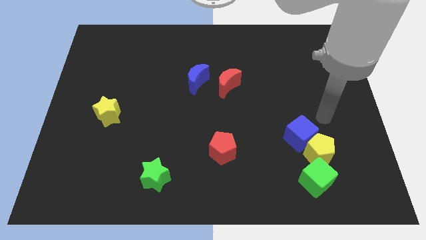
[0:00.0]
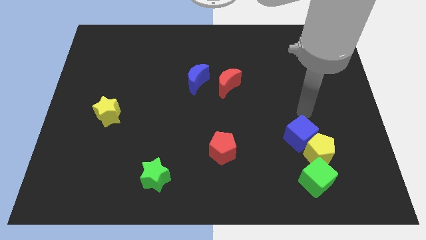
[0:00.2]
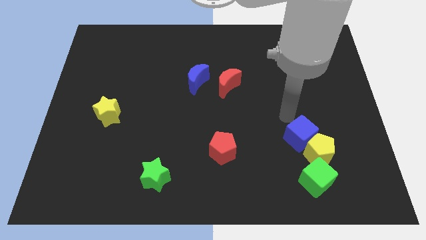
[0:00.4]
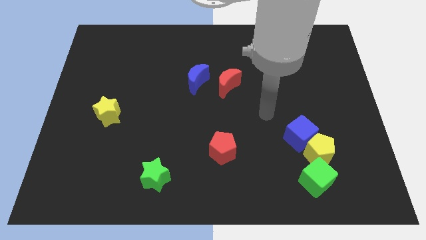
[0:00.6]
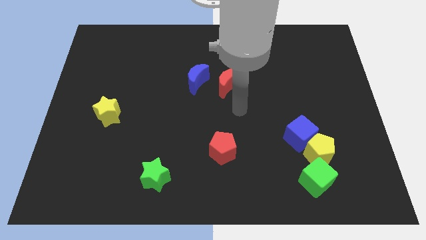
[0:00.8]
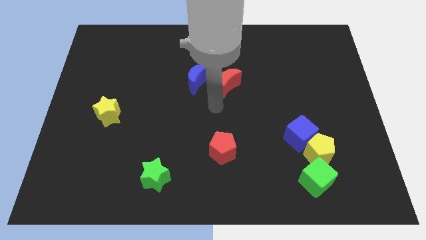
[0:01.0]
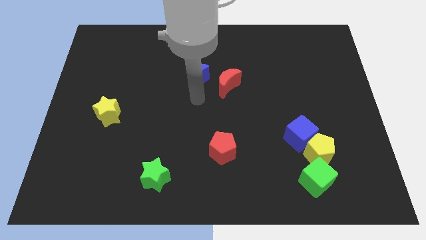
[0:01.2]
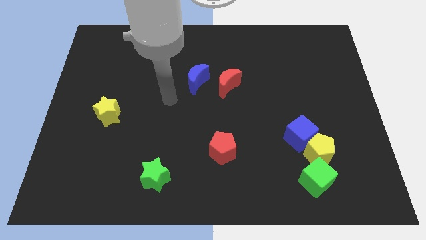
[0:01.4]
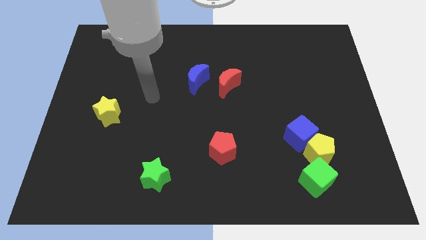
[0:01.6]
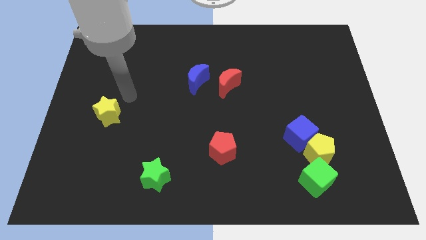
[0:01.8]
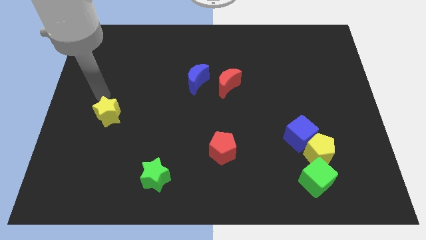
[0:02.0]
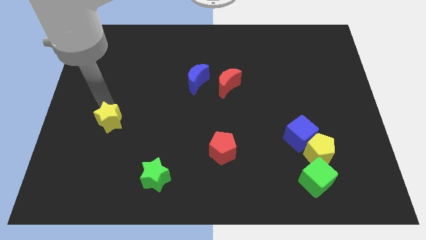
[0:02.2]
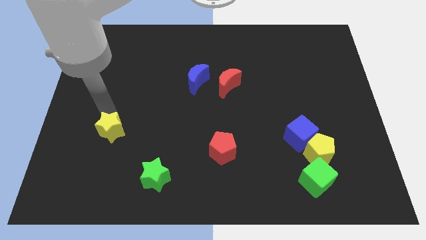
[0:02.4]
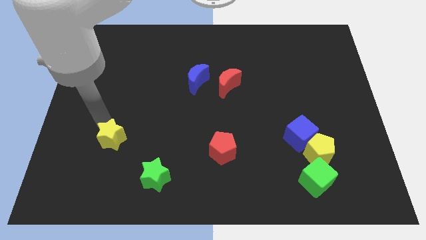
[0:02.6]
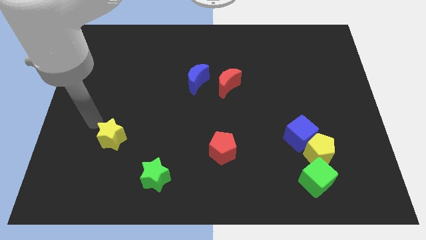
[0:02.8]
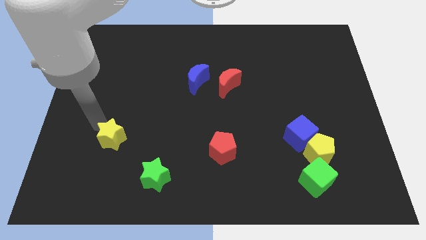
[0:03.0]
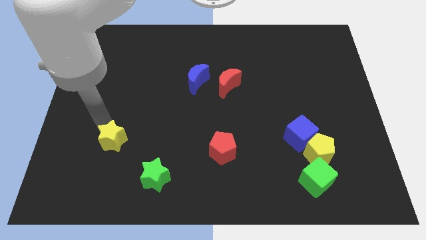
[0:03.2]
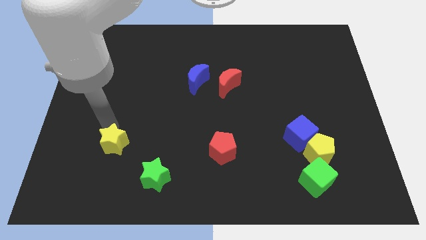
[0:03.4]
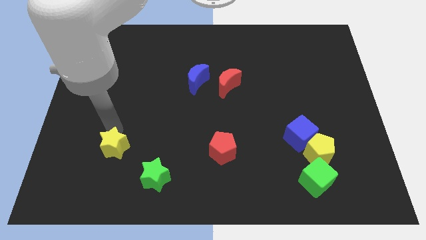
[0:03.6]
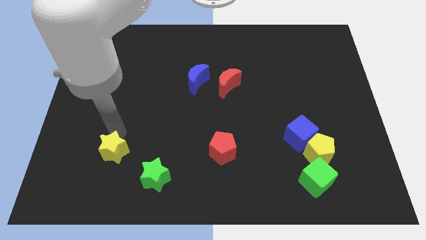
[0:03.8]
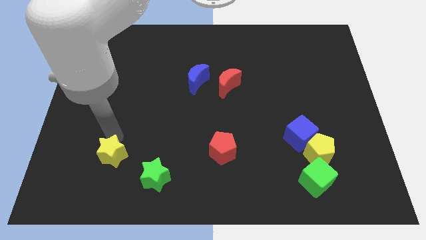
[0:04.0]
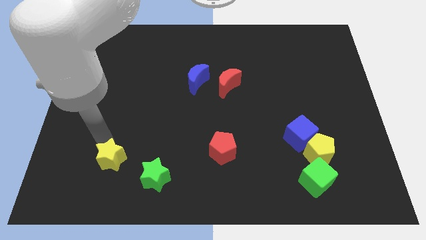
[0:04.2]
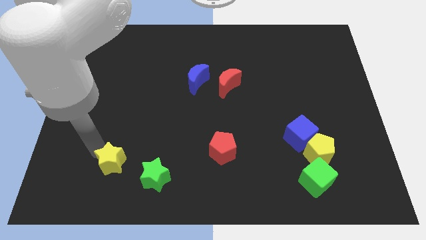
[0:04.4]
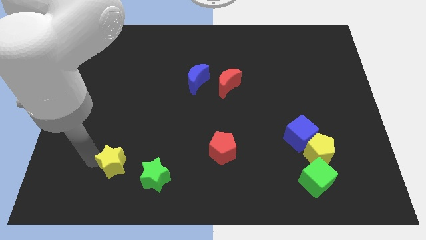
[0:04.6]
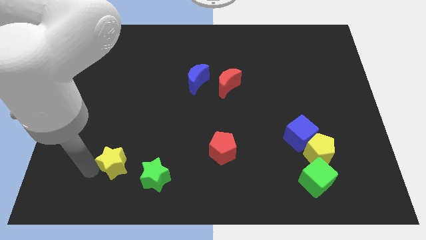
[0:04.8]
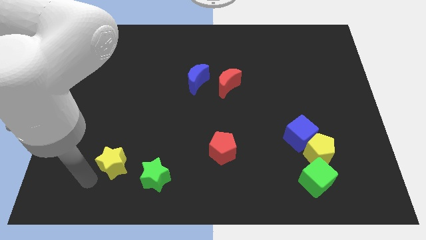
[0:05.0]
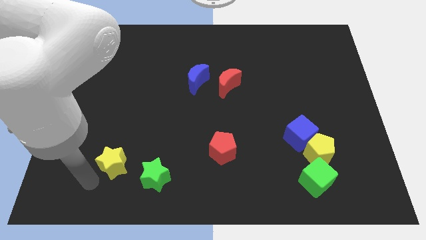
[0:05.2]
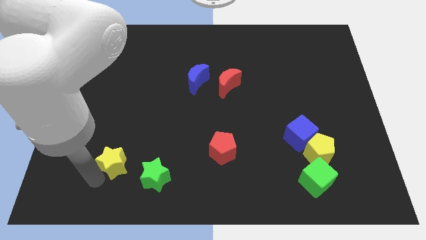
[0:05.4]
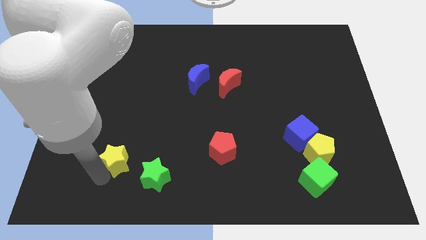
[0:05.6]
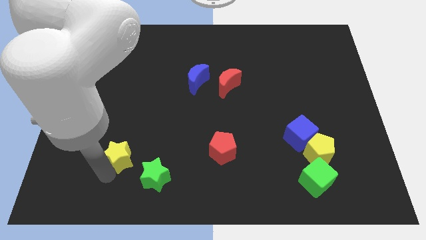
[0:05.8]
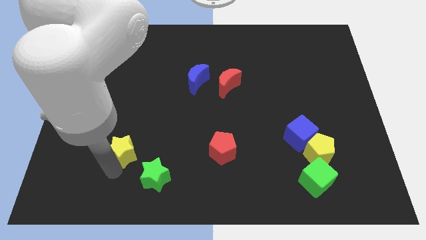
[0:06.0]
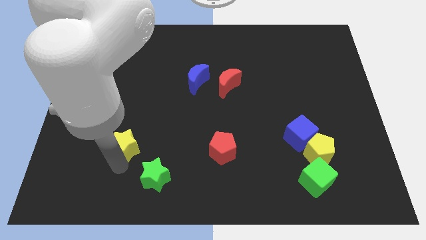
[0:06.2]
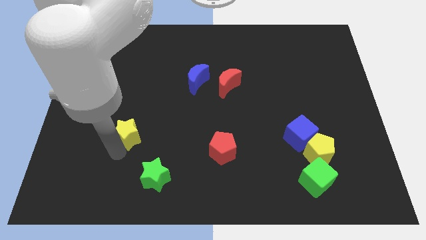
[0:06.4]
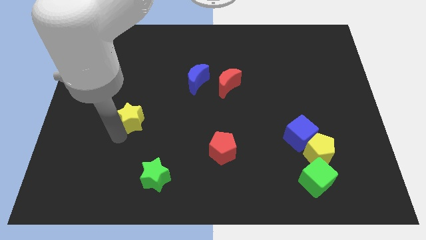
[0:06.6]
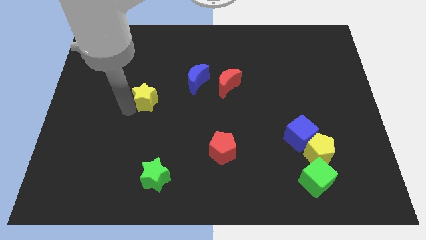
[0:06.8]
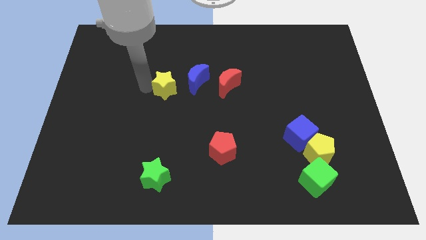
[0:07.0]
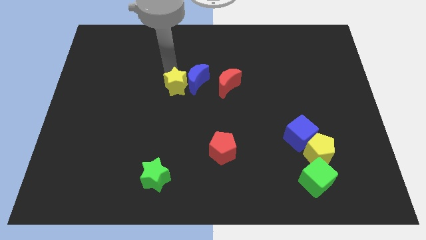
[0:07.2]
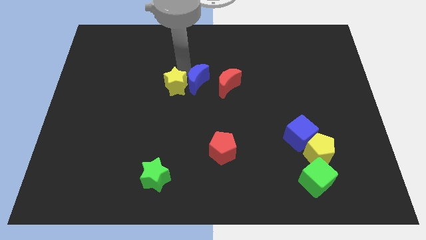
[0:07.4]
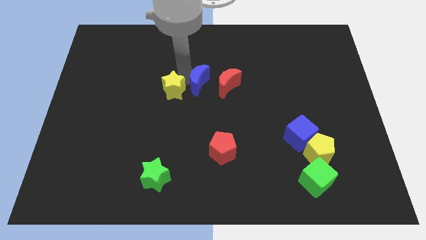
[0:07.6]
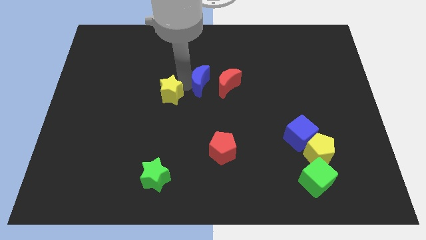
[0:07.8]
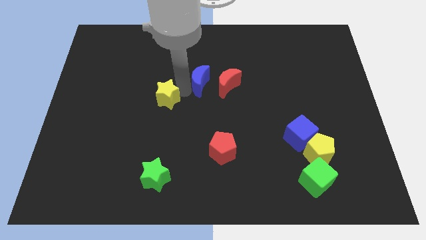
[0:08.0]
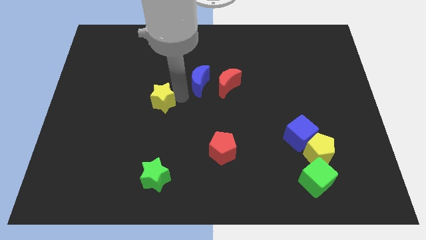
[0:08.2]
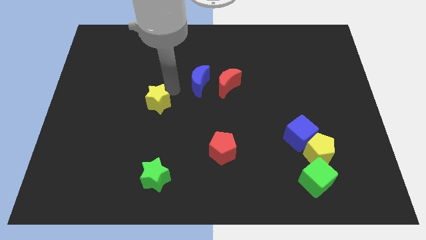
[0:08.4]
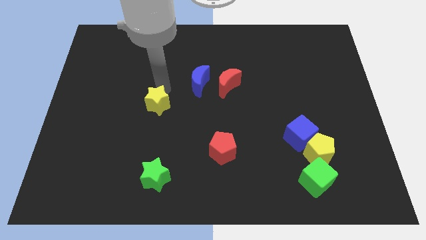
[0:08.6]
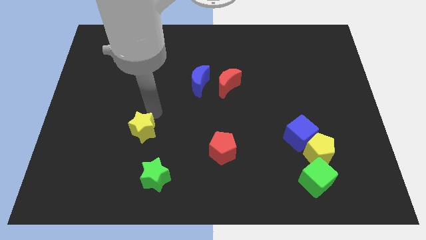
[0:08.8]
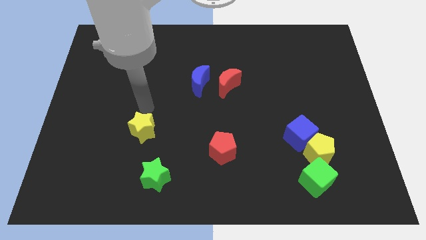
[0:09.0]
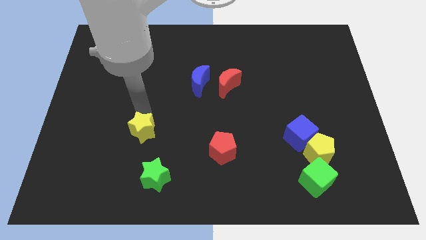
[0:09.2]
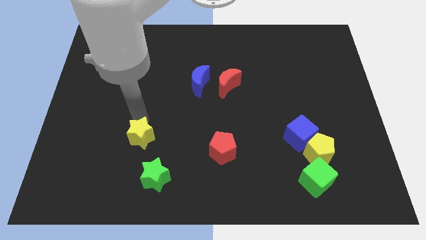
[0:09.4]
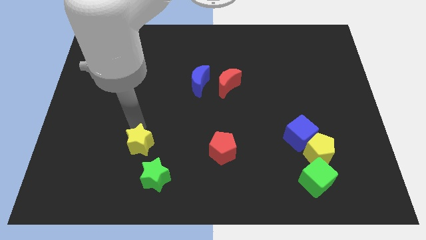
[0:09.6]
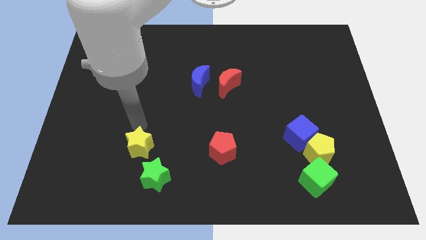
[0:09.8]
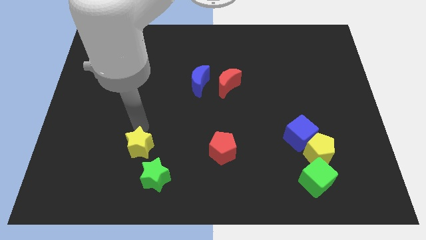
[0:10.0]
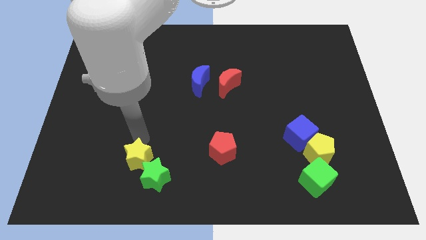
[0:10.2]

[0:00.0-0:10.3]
push the yellow star to the green star

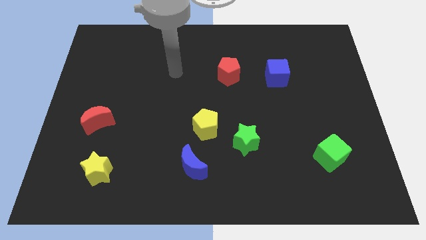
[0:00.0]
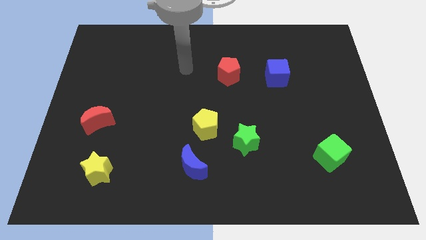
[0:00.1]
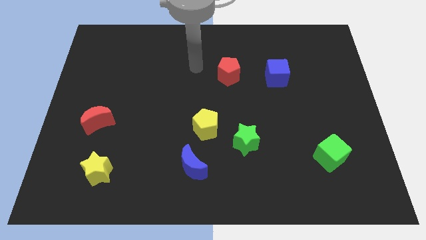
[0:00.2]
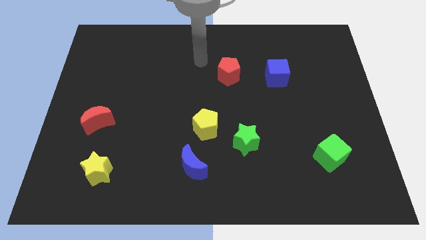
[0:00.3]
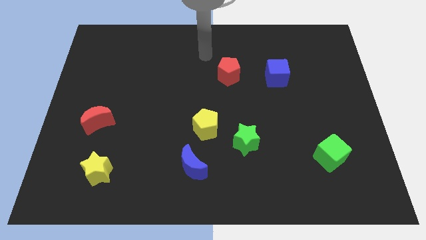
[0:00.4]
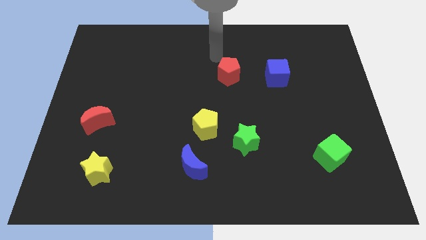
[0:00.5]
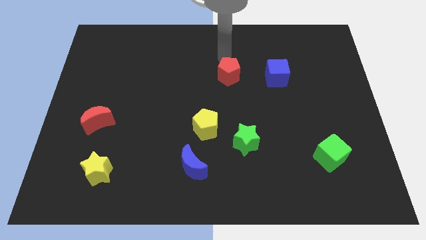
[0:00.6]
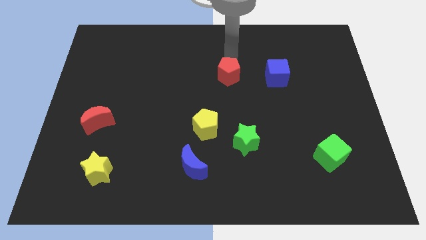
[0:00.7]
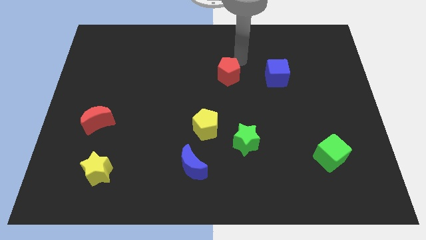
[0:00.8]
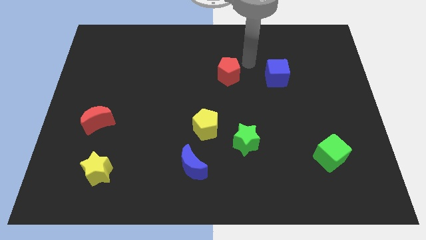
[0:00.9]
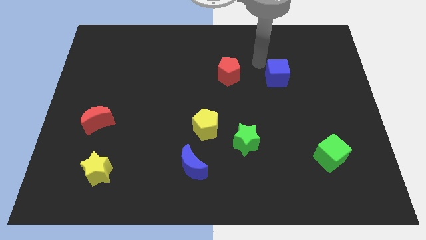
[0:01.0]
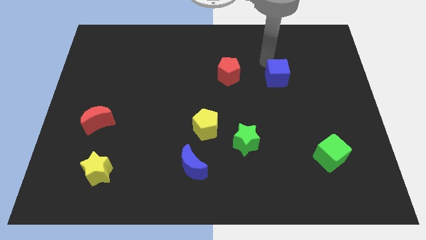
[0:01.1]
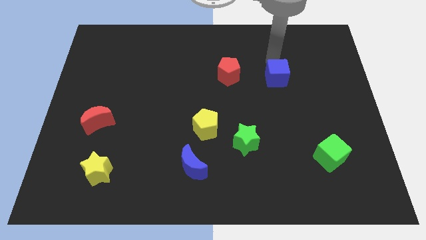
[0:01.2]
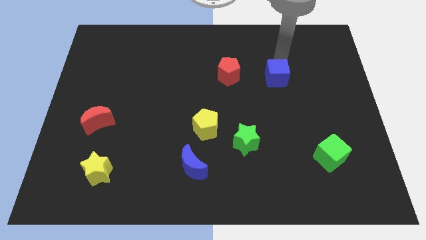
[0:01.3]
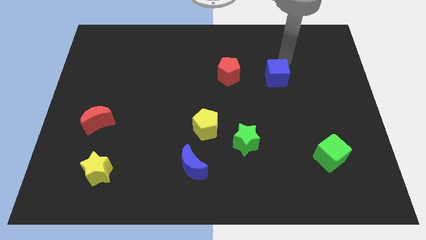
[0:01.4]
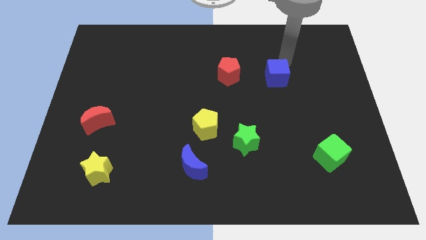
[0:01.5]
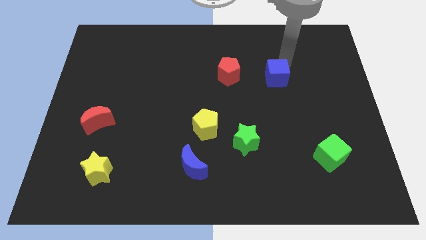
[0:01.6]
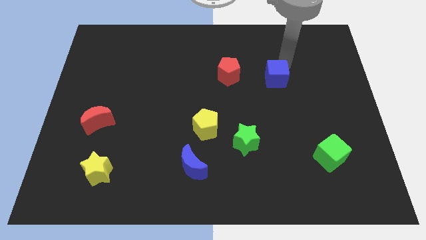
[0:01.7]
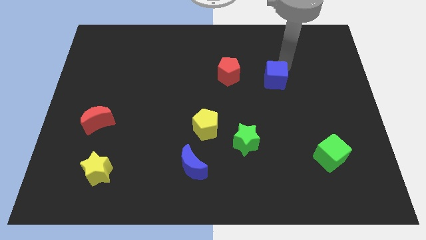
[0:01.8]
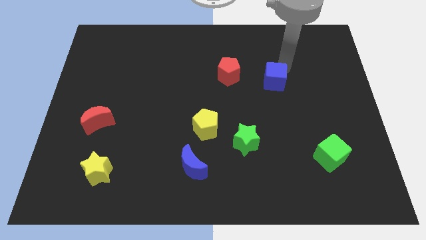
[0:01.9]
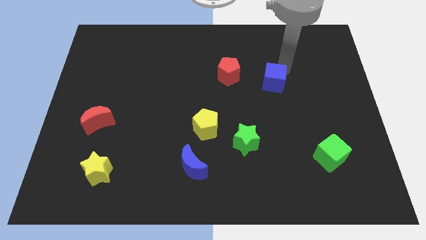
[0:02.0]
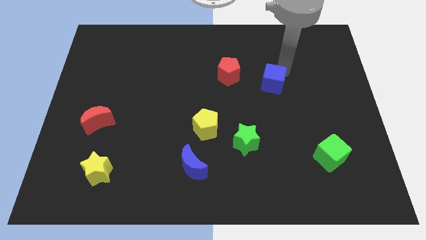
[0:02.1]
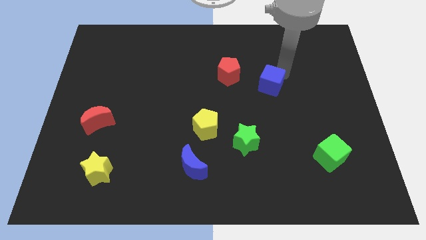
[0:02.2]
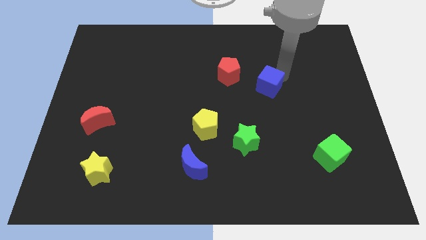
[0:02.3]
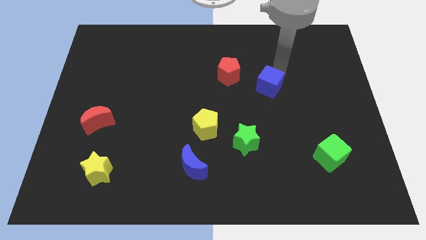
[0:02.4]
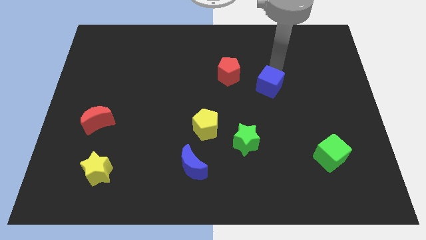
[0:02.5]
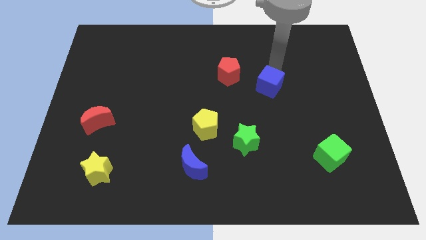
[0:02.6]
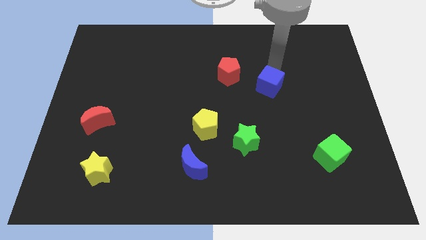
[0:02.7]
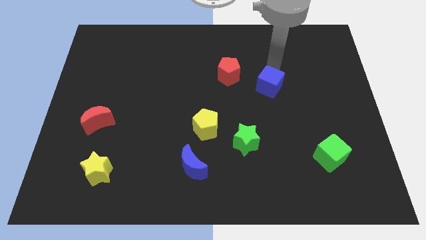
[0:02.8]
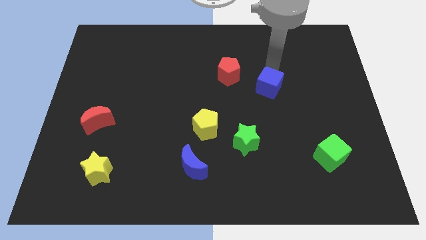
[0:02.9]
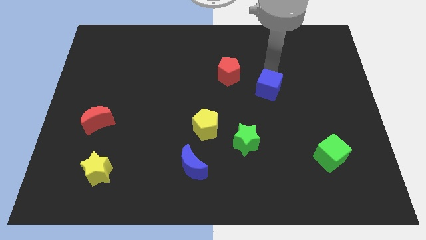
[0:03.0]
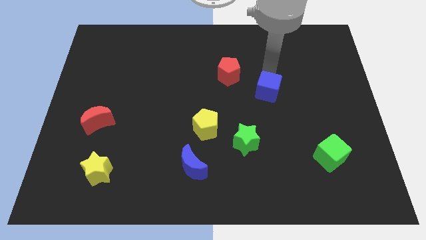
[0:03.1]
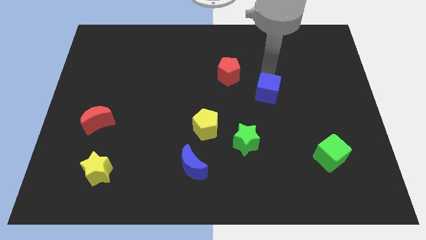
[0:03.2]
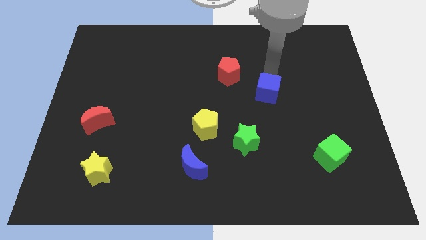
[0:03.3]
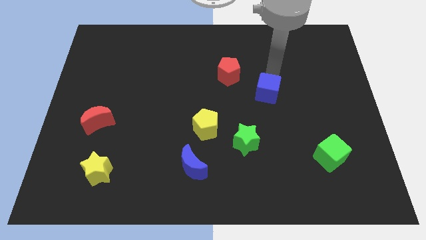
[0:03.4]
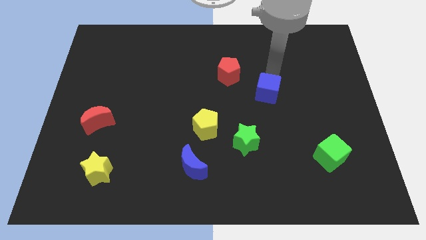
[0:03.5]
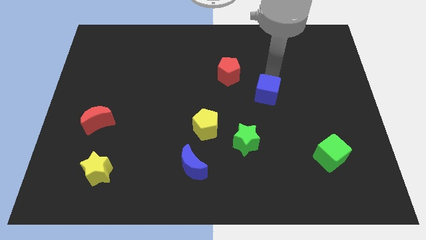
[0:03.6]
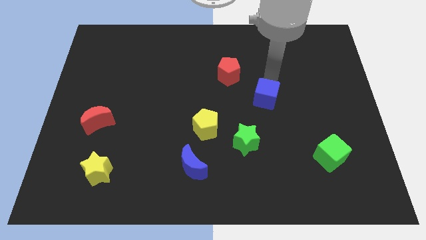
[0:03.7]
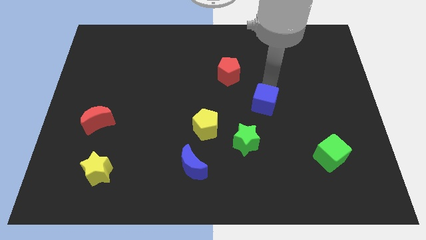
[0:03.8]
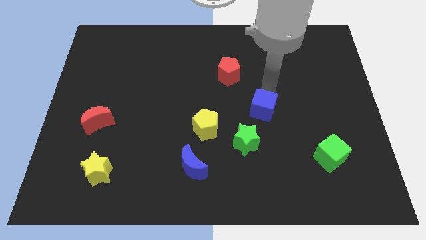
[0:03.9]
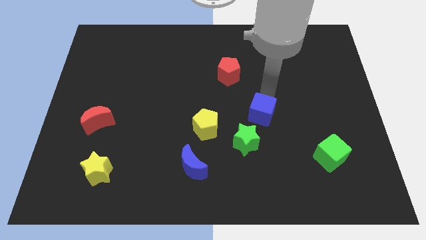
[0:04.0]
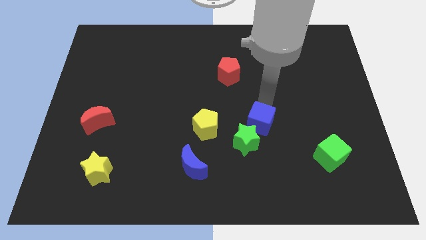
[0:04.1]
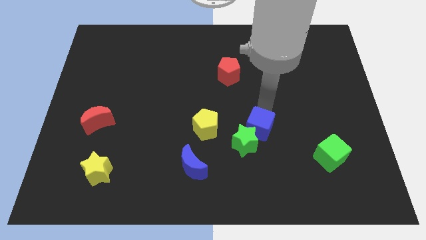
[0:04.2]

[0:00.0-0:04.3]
slide the blue cube towards the green star
